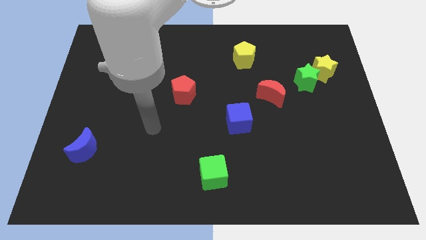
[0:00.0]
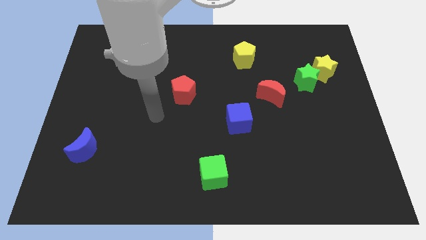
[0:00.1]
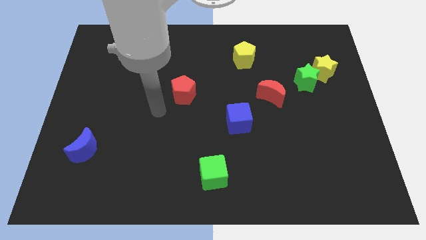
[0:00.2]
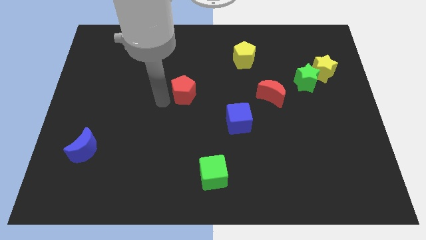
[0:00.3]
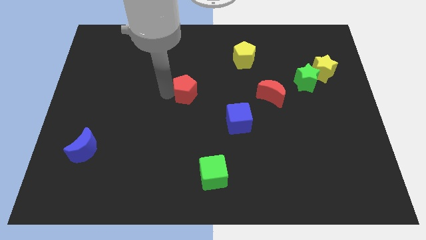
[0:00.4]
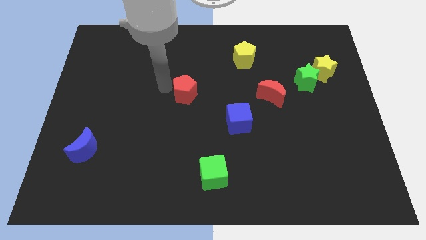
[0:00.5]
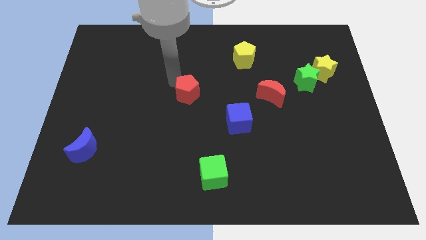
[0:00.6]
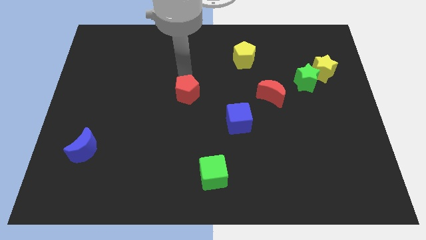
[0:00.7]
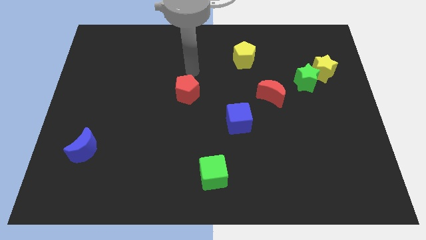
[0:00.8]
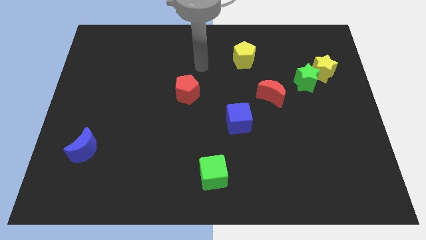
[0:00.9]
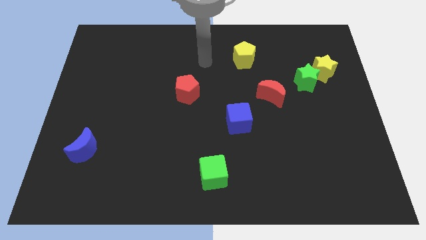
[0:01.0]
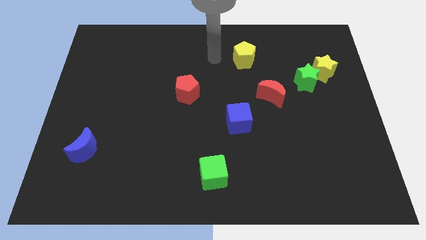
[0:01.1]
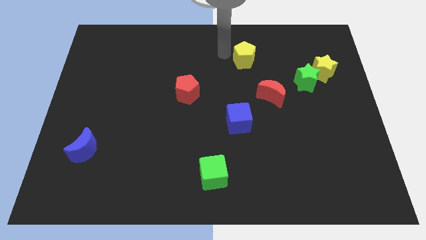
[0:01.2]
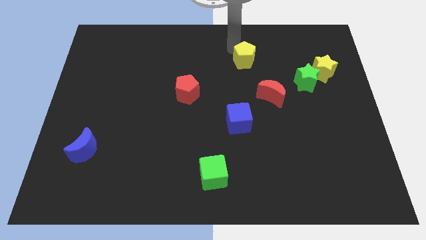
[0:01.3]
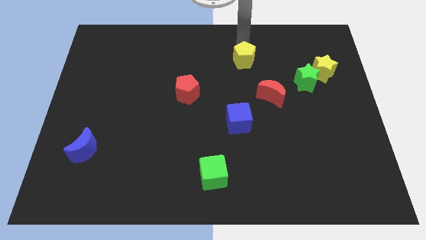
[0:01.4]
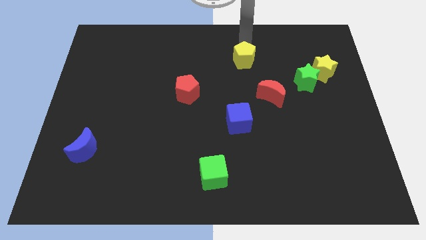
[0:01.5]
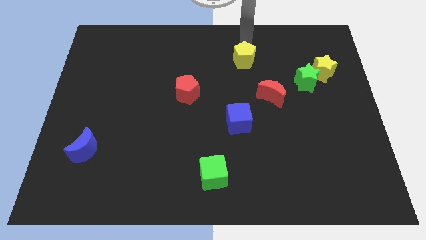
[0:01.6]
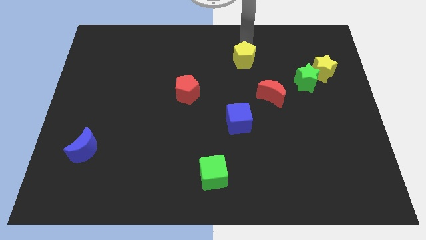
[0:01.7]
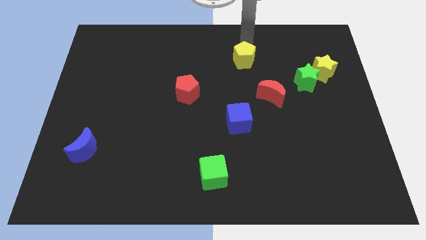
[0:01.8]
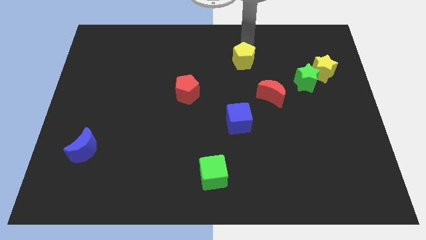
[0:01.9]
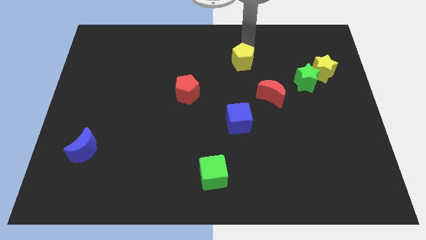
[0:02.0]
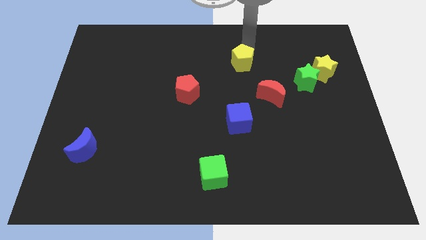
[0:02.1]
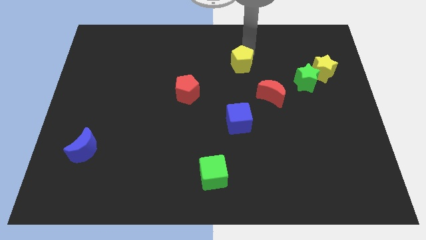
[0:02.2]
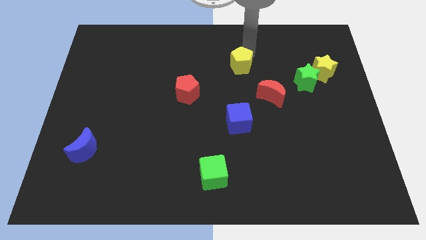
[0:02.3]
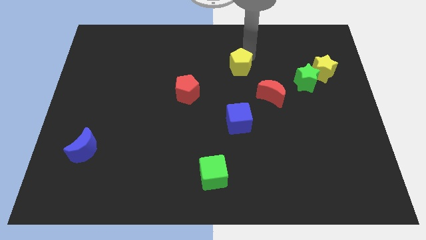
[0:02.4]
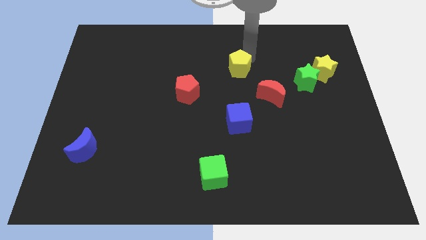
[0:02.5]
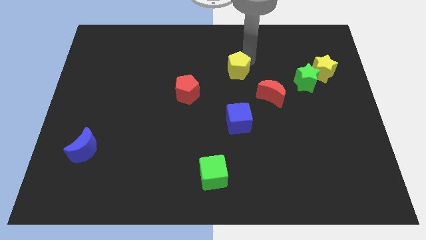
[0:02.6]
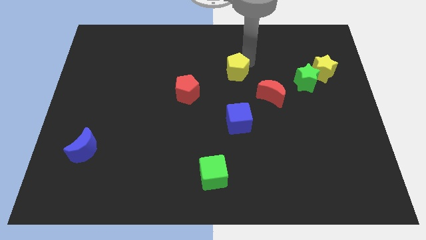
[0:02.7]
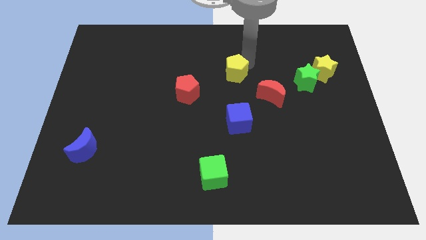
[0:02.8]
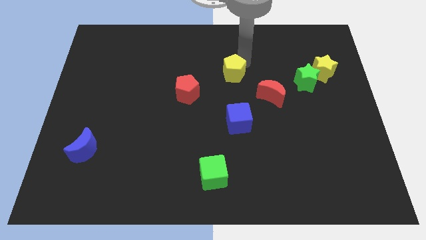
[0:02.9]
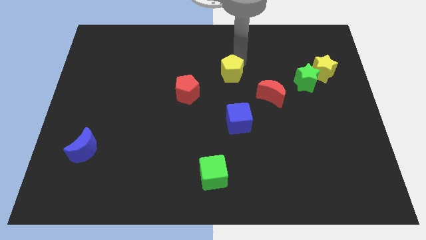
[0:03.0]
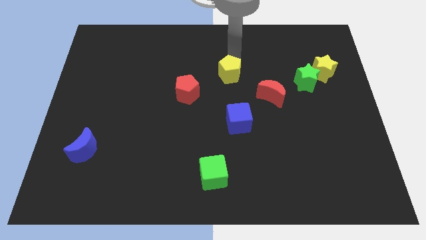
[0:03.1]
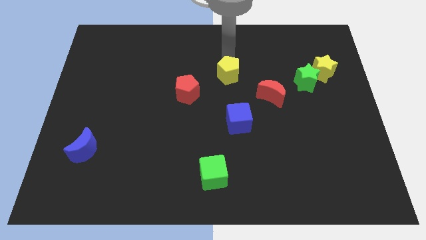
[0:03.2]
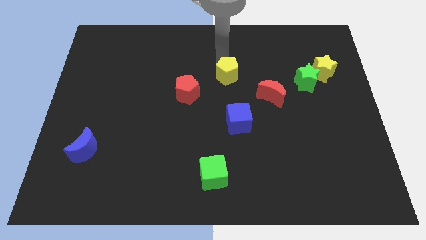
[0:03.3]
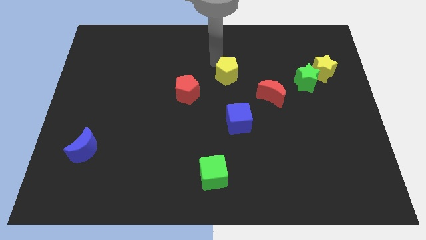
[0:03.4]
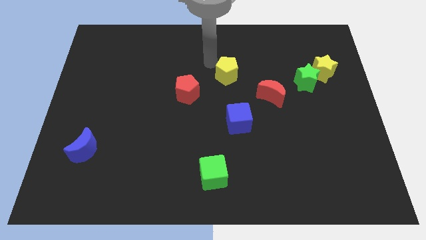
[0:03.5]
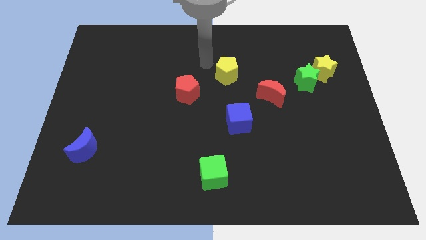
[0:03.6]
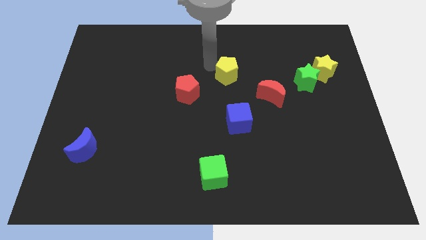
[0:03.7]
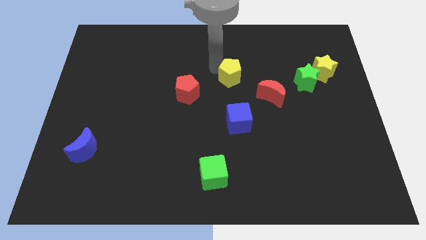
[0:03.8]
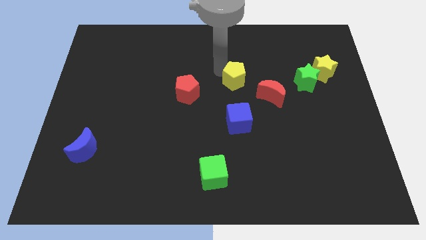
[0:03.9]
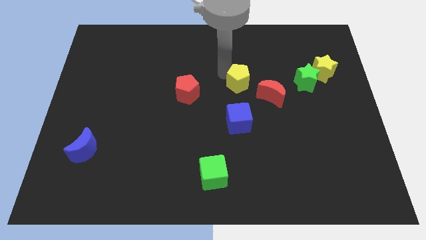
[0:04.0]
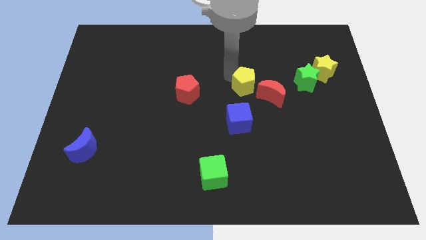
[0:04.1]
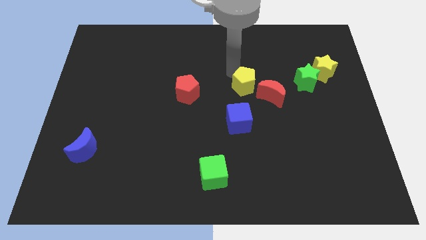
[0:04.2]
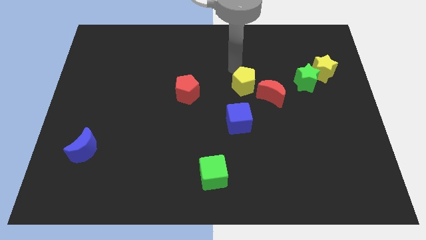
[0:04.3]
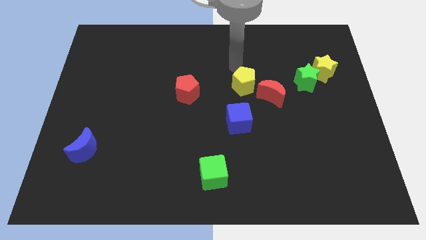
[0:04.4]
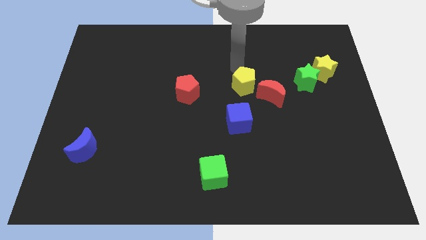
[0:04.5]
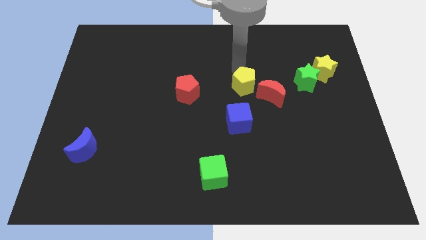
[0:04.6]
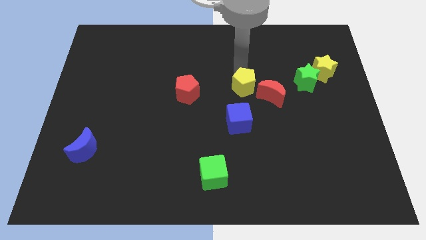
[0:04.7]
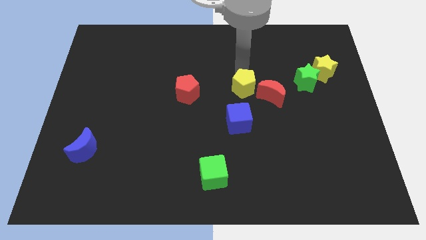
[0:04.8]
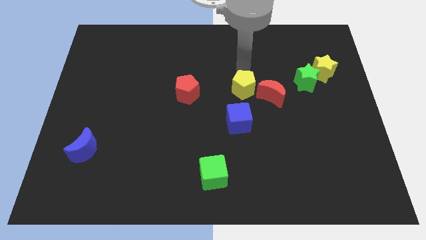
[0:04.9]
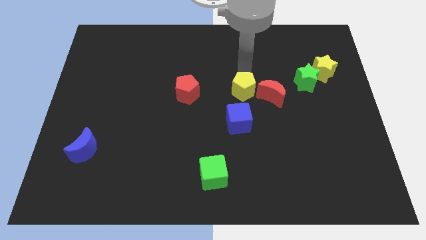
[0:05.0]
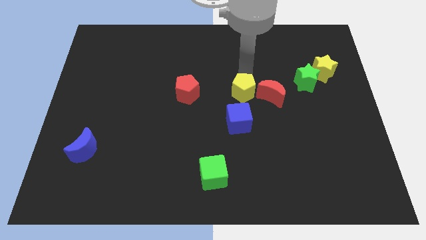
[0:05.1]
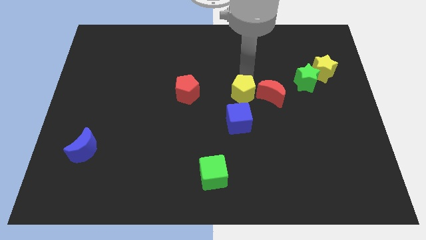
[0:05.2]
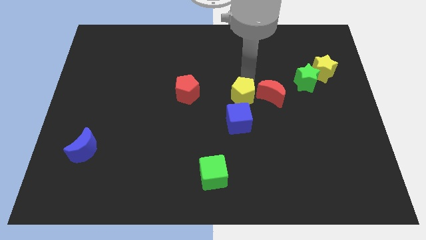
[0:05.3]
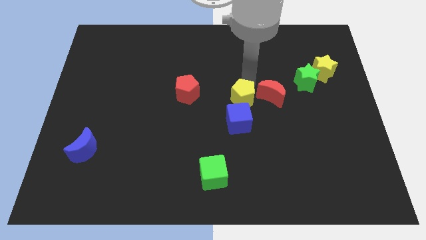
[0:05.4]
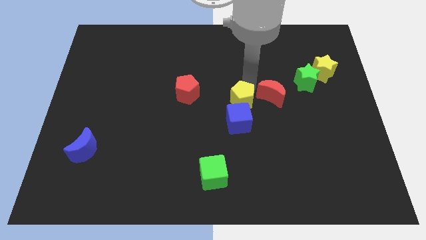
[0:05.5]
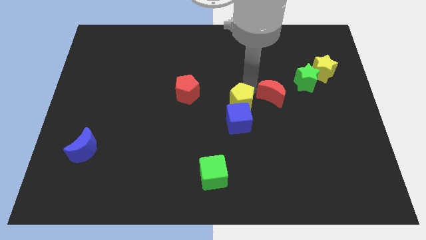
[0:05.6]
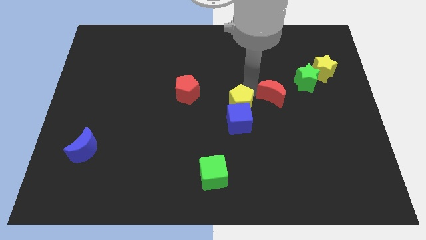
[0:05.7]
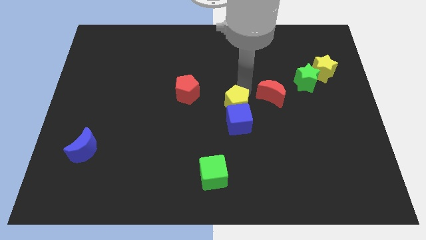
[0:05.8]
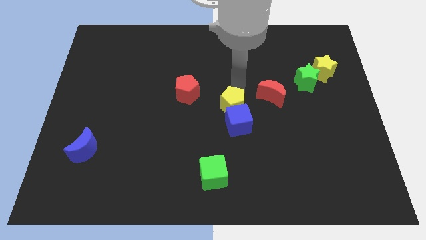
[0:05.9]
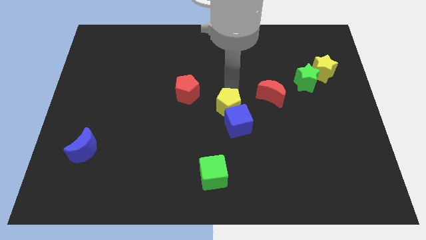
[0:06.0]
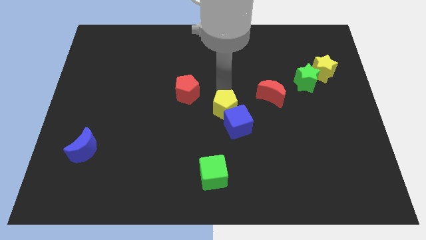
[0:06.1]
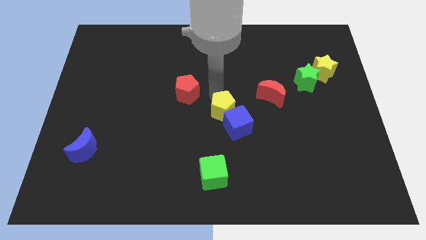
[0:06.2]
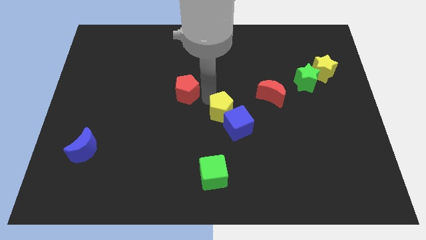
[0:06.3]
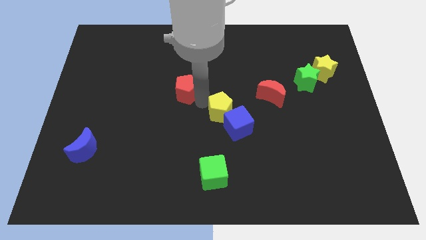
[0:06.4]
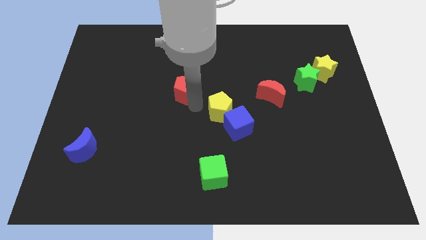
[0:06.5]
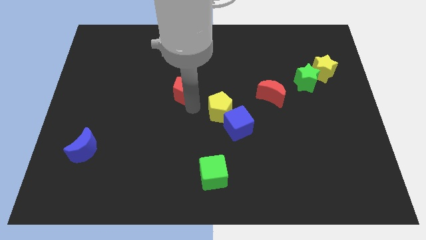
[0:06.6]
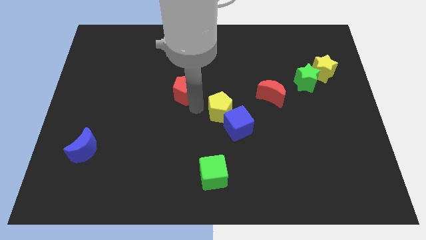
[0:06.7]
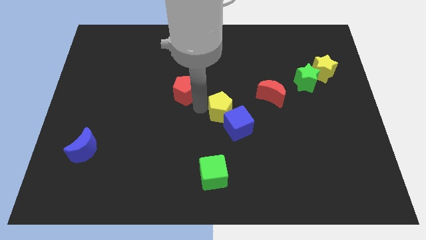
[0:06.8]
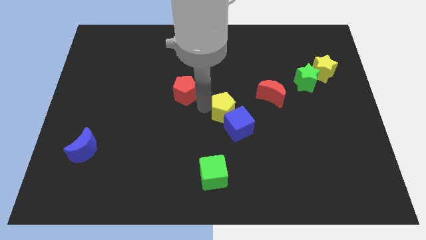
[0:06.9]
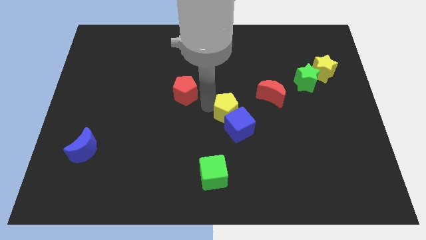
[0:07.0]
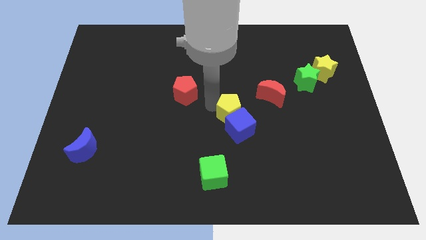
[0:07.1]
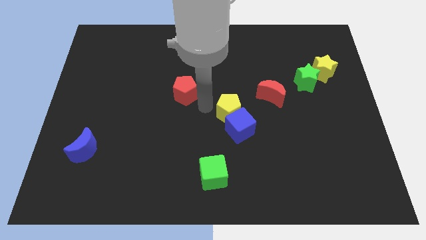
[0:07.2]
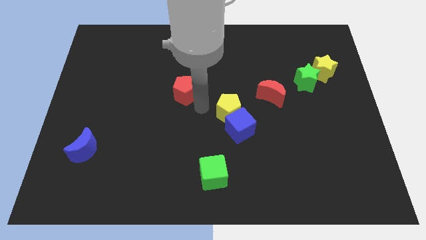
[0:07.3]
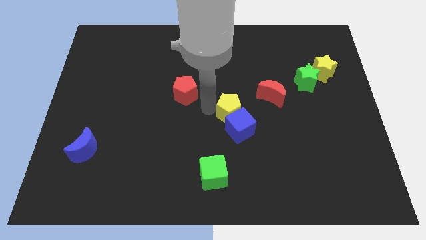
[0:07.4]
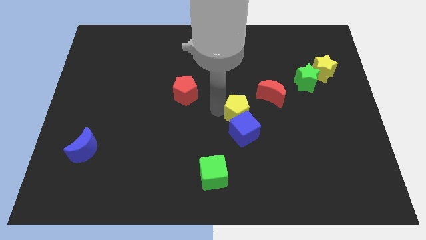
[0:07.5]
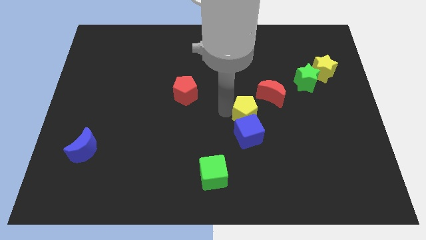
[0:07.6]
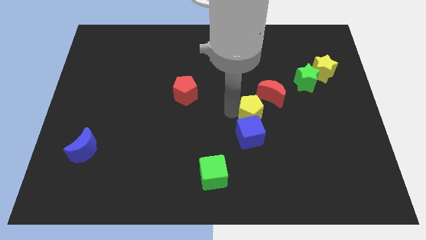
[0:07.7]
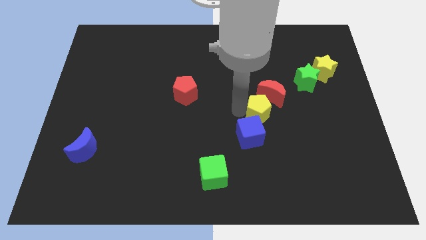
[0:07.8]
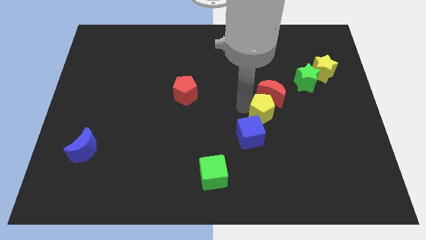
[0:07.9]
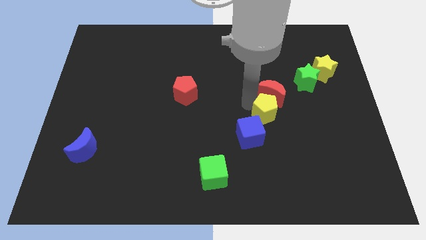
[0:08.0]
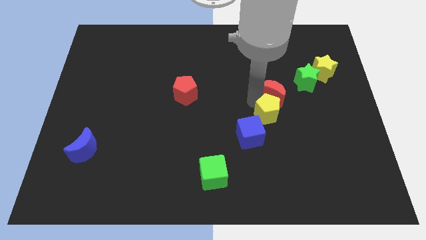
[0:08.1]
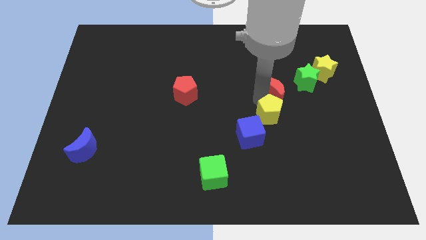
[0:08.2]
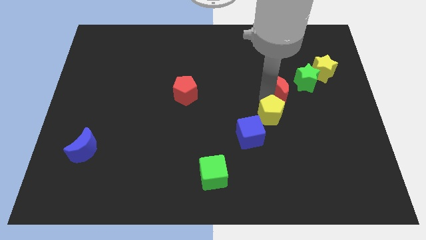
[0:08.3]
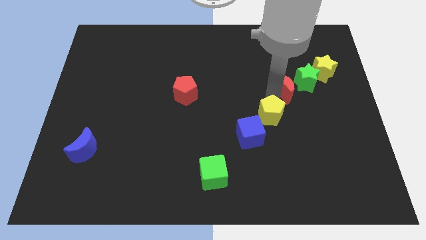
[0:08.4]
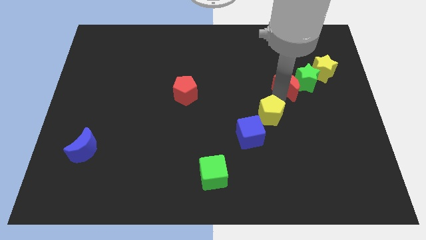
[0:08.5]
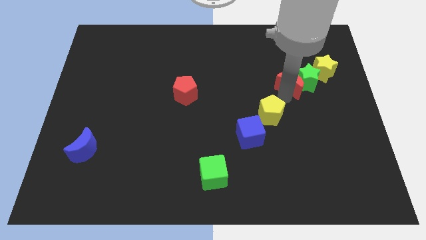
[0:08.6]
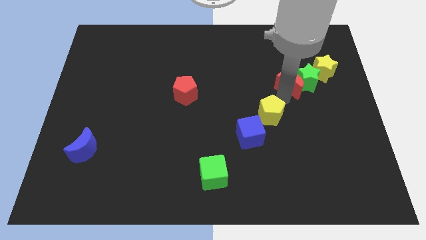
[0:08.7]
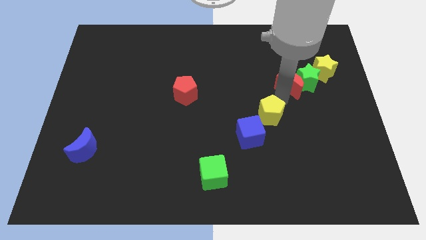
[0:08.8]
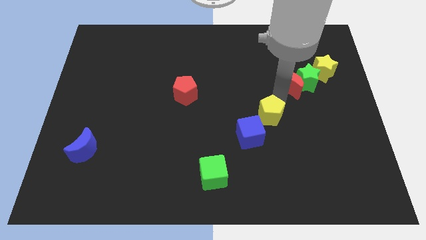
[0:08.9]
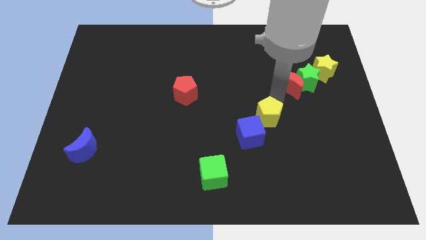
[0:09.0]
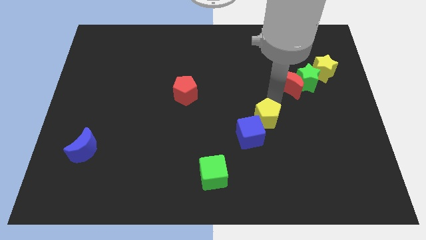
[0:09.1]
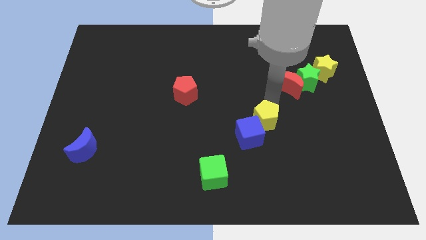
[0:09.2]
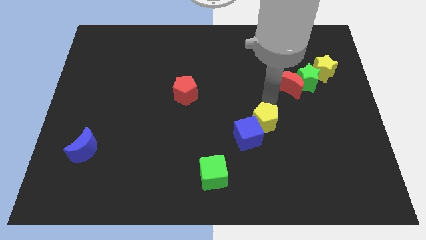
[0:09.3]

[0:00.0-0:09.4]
slide the yellow pentagon downwards
